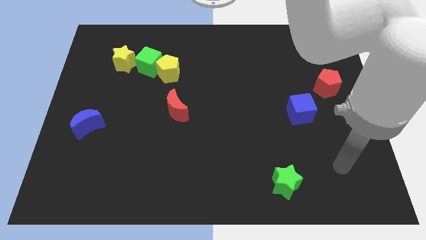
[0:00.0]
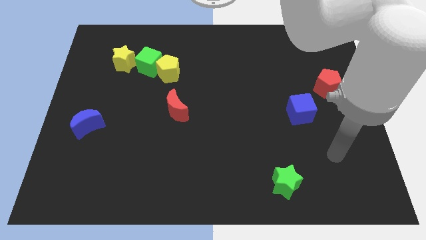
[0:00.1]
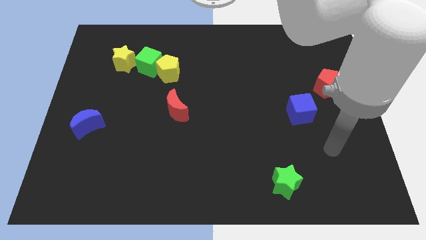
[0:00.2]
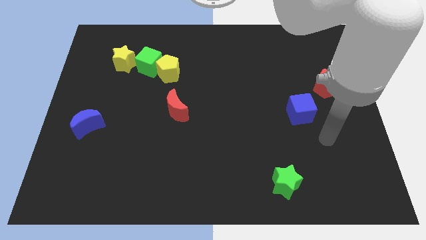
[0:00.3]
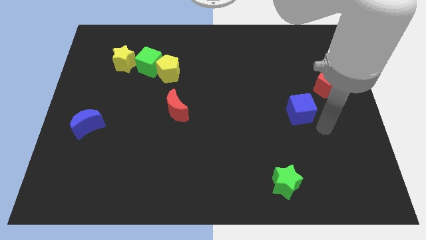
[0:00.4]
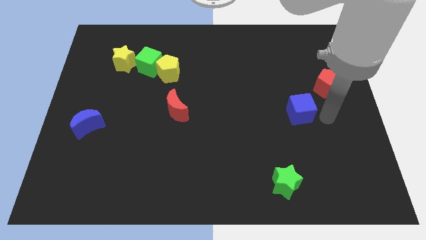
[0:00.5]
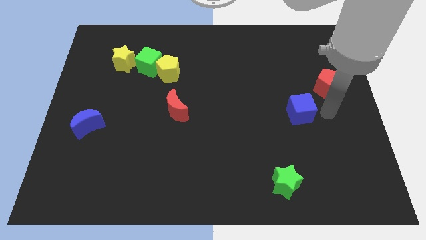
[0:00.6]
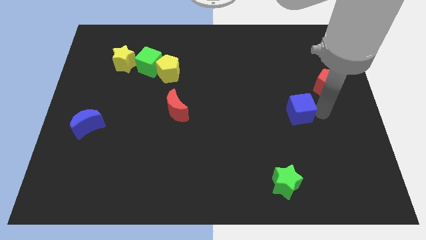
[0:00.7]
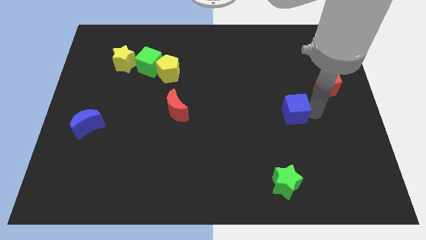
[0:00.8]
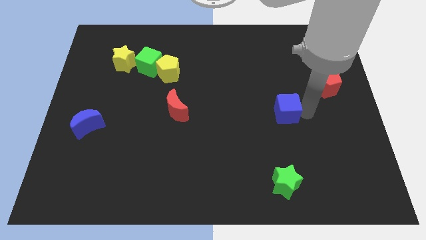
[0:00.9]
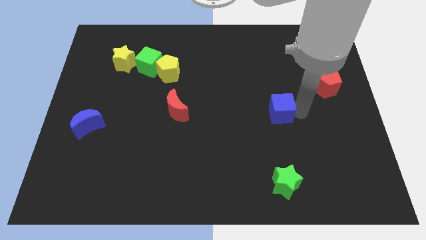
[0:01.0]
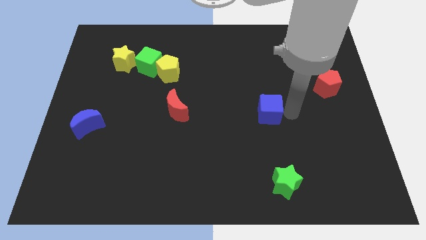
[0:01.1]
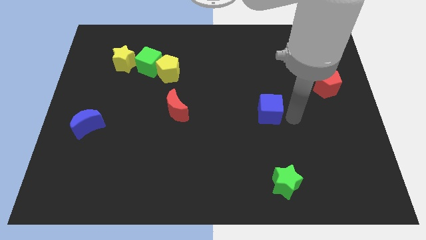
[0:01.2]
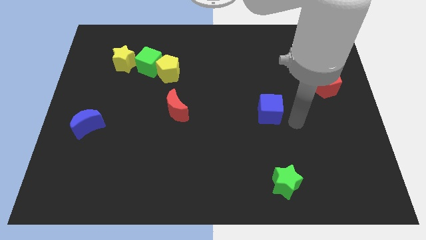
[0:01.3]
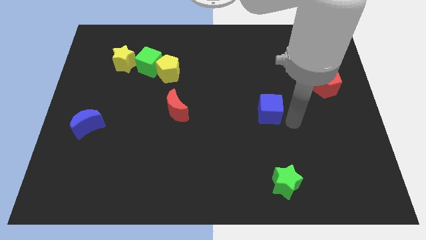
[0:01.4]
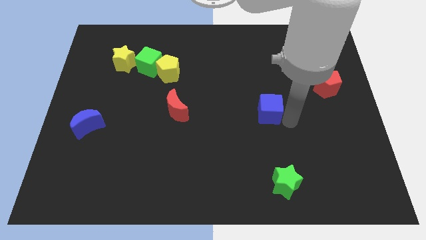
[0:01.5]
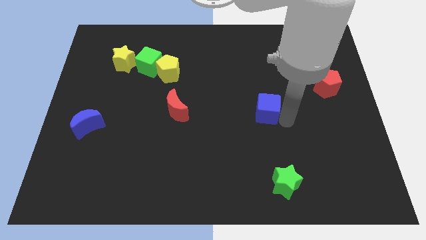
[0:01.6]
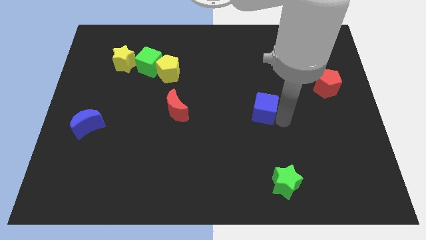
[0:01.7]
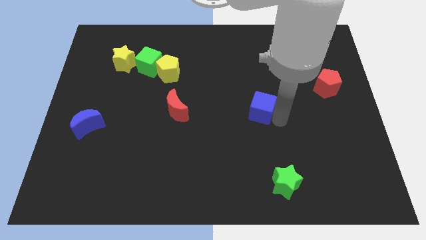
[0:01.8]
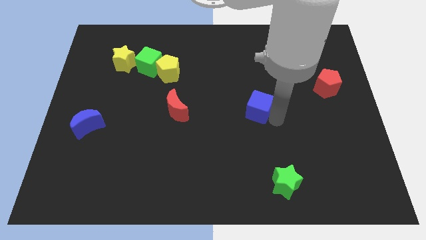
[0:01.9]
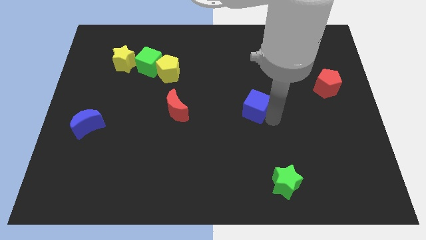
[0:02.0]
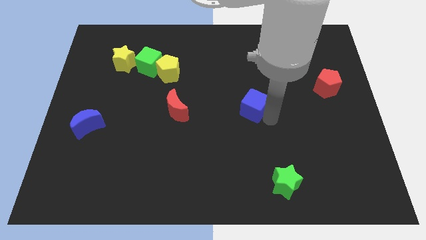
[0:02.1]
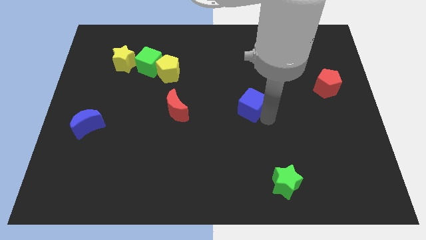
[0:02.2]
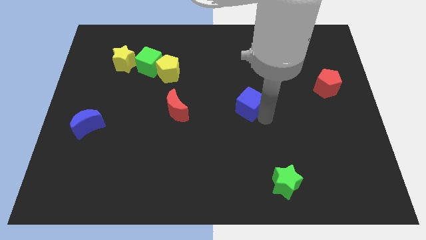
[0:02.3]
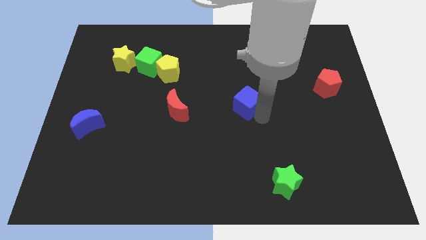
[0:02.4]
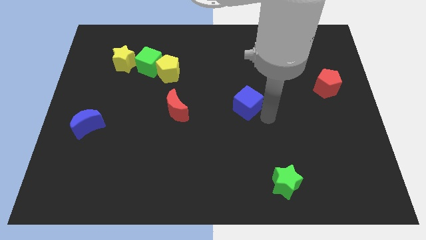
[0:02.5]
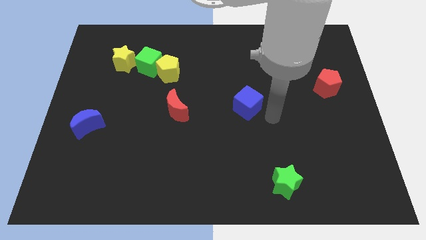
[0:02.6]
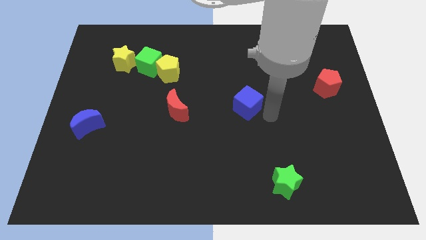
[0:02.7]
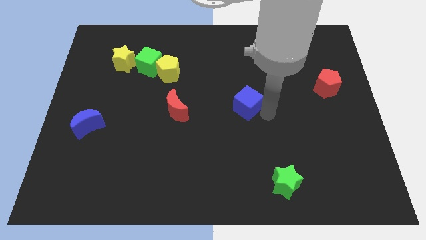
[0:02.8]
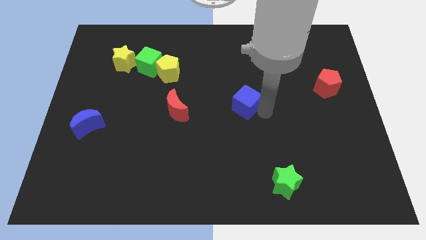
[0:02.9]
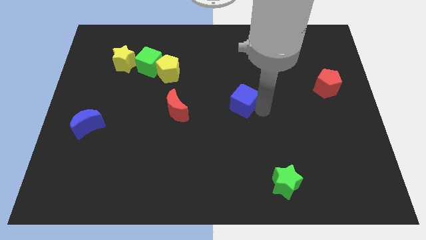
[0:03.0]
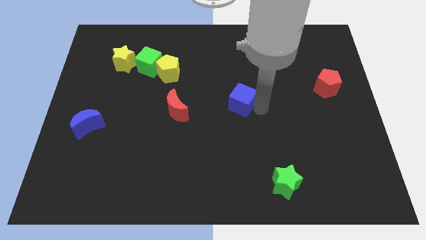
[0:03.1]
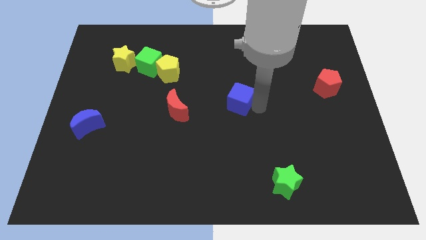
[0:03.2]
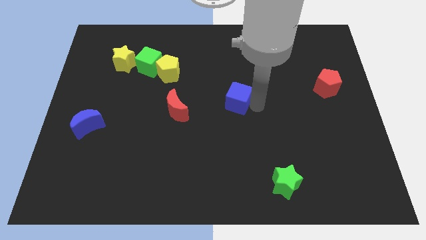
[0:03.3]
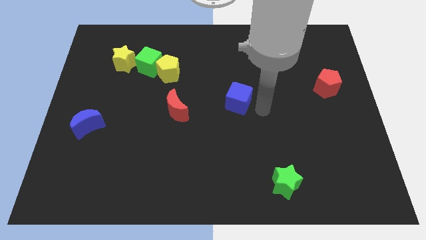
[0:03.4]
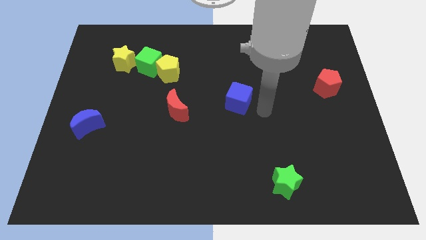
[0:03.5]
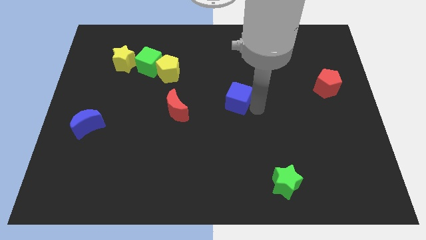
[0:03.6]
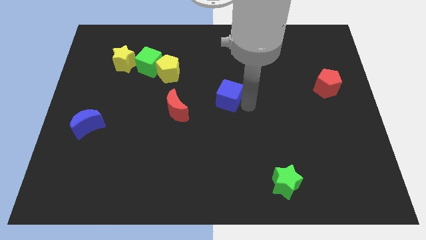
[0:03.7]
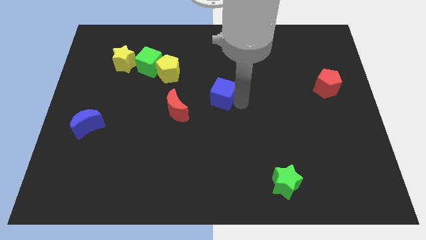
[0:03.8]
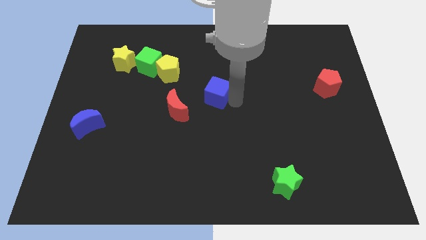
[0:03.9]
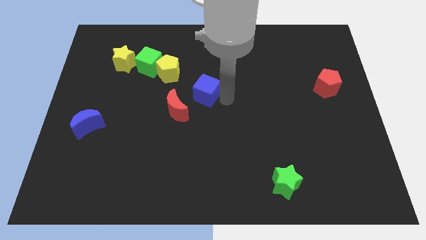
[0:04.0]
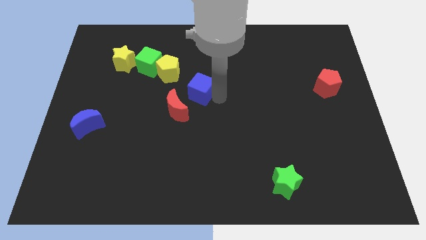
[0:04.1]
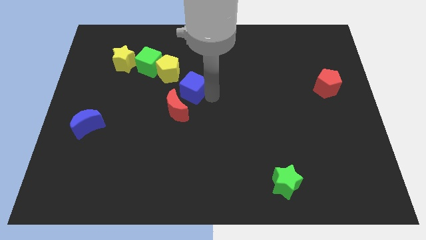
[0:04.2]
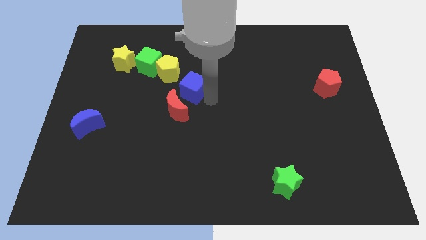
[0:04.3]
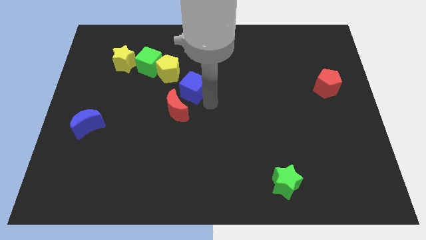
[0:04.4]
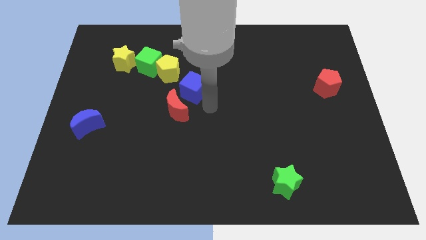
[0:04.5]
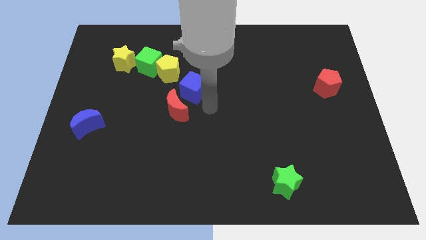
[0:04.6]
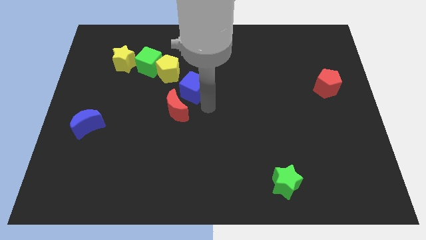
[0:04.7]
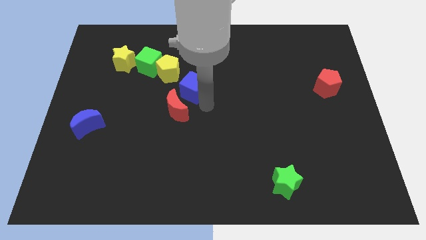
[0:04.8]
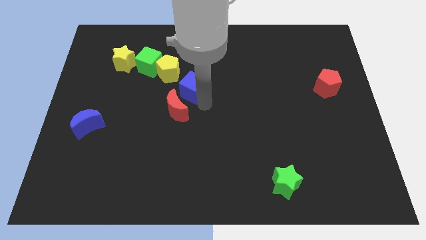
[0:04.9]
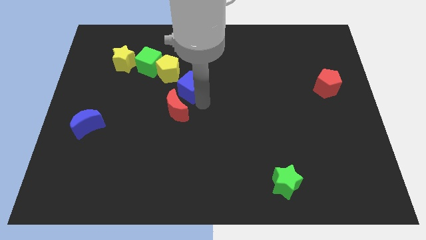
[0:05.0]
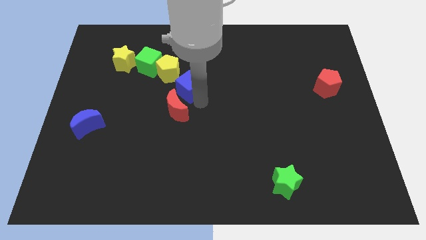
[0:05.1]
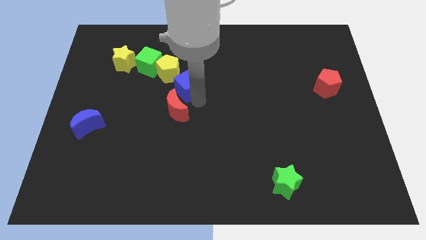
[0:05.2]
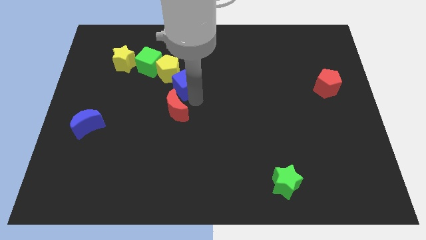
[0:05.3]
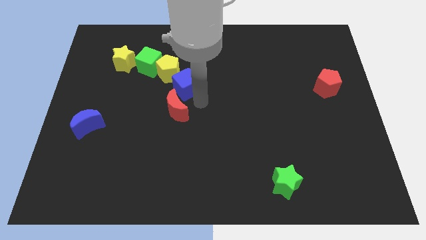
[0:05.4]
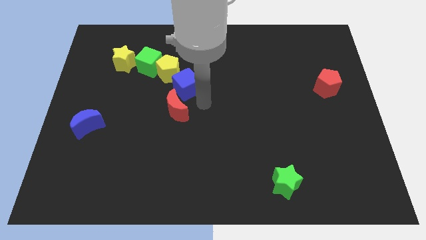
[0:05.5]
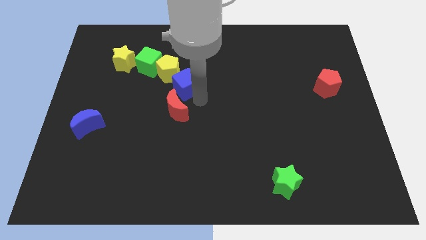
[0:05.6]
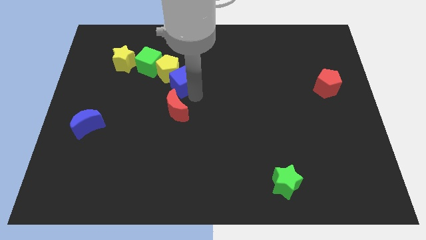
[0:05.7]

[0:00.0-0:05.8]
move the blue cube to the yellow pentagon

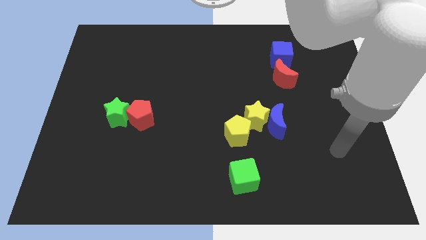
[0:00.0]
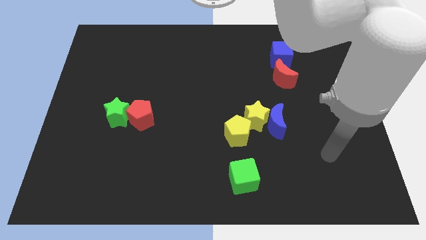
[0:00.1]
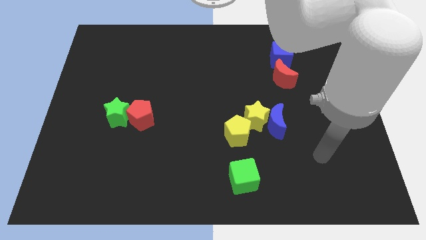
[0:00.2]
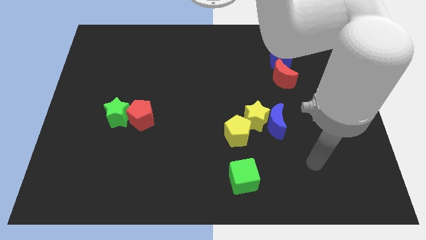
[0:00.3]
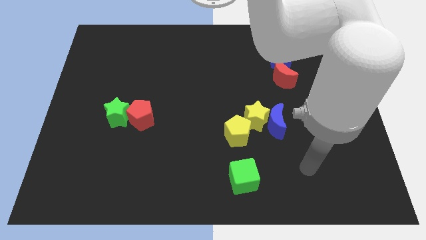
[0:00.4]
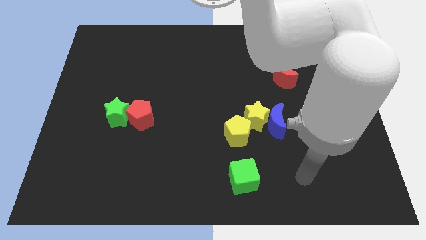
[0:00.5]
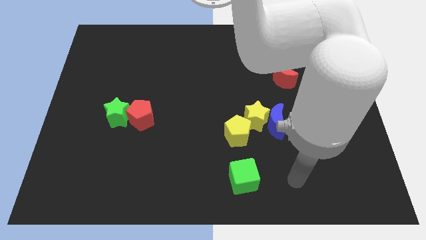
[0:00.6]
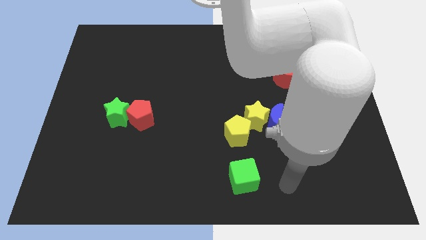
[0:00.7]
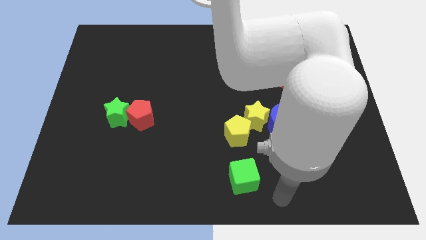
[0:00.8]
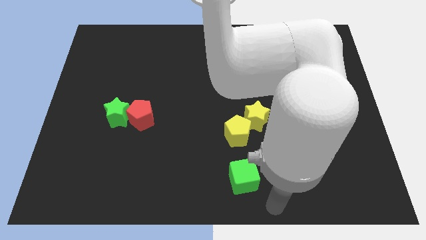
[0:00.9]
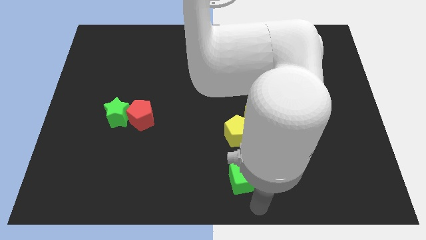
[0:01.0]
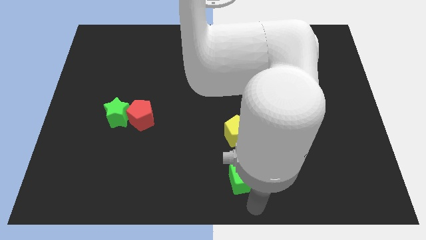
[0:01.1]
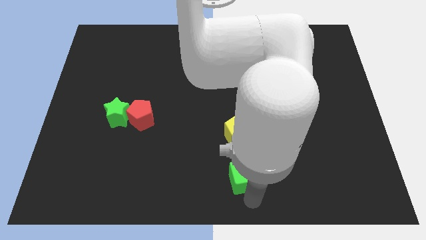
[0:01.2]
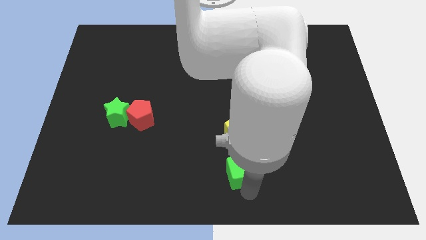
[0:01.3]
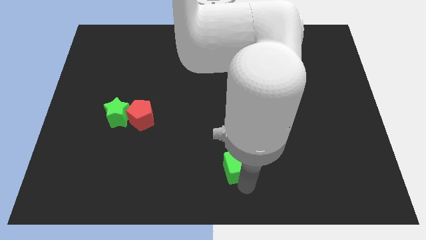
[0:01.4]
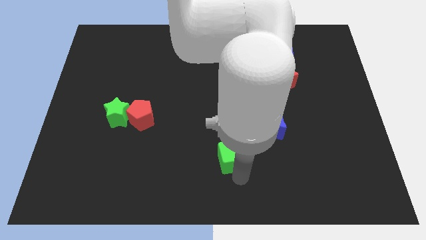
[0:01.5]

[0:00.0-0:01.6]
push the green cube towards the yellow pentagon

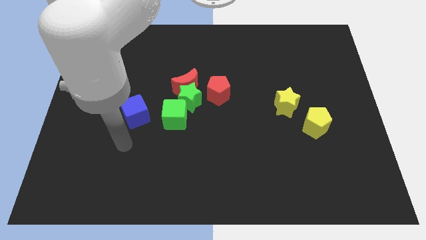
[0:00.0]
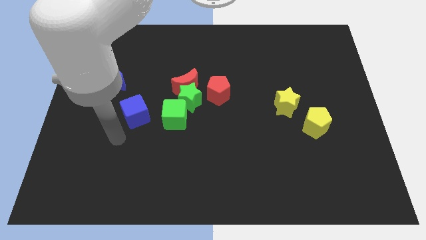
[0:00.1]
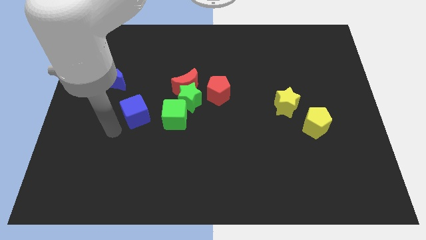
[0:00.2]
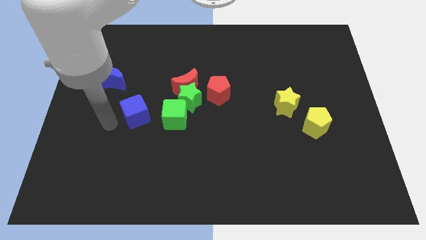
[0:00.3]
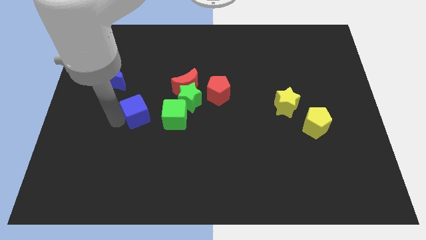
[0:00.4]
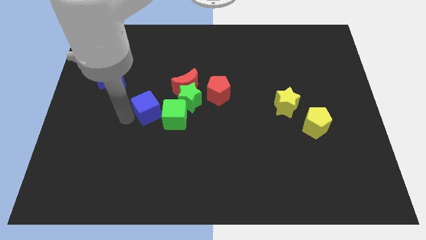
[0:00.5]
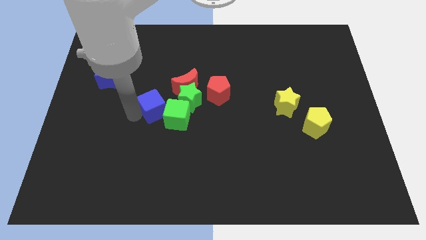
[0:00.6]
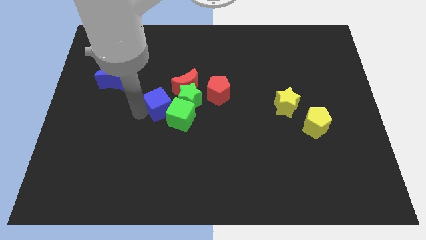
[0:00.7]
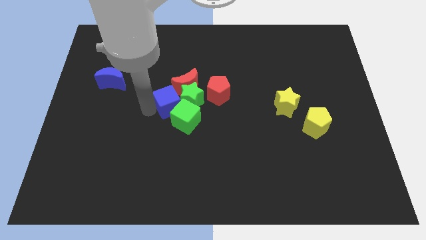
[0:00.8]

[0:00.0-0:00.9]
slide the blue cube next to the green star
